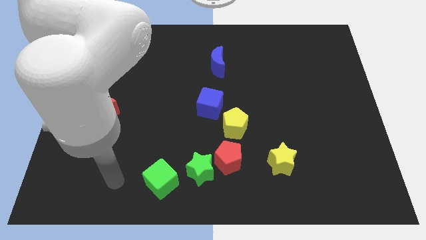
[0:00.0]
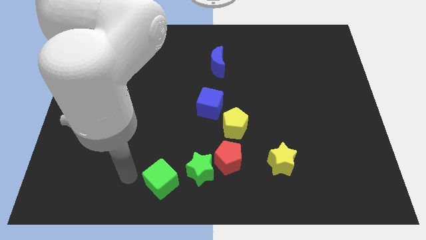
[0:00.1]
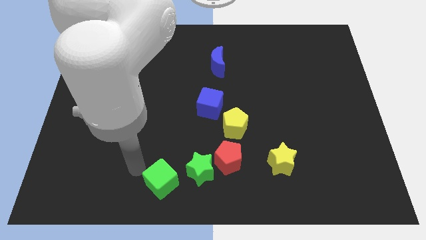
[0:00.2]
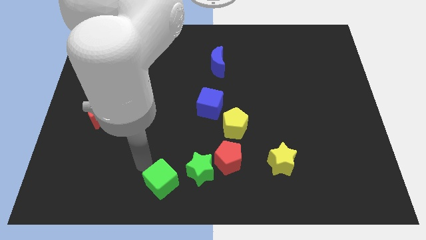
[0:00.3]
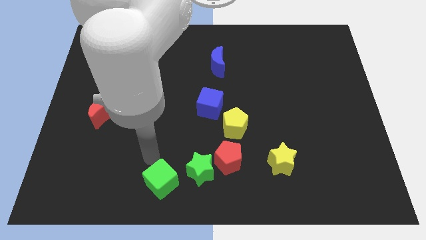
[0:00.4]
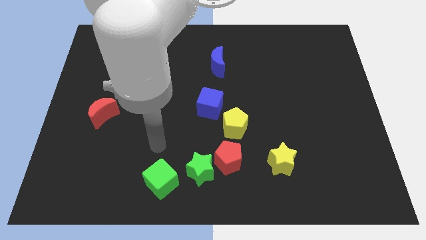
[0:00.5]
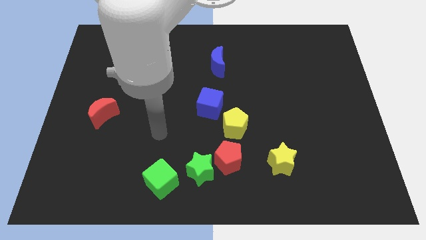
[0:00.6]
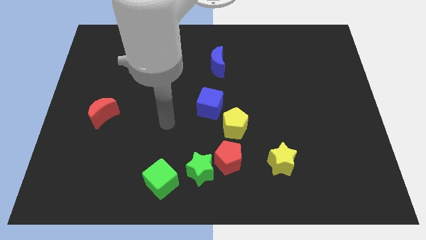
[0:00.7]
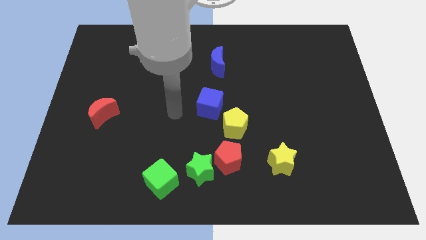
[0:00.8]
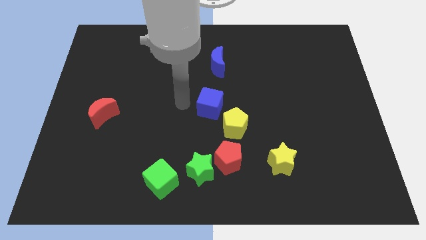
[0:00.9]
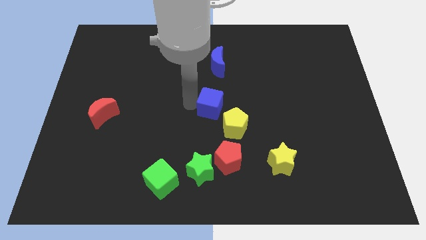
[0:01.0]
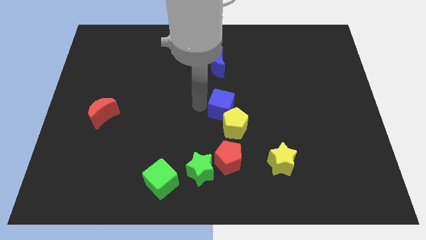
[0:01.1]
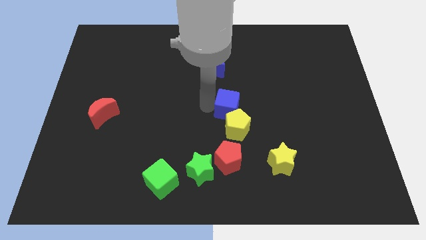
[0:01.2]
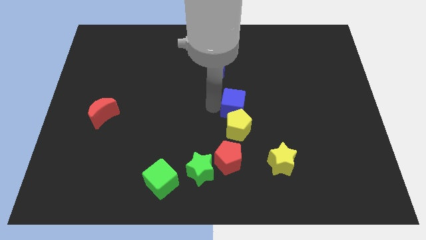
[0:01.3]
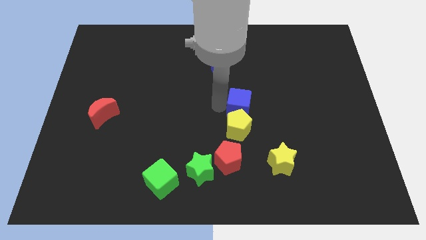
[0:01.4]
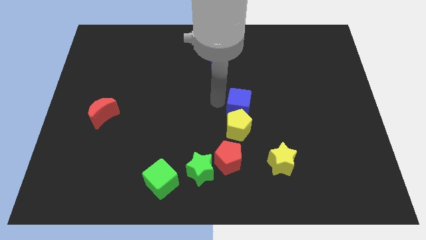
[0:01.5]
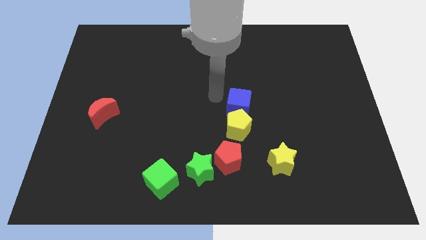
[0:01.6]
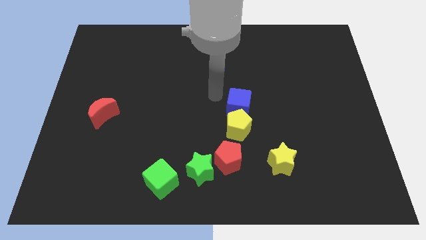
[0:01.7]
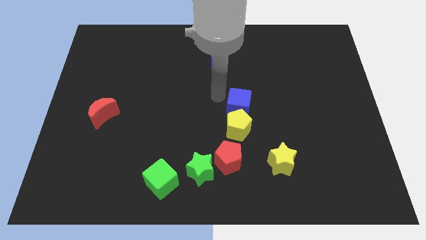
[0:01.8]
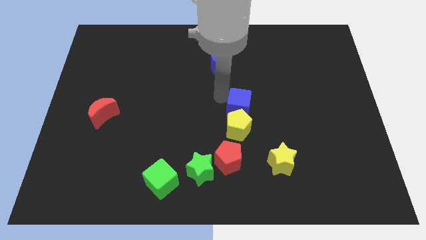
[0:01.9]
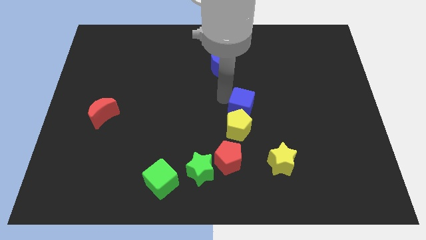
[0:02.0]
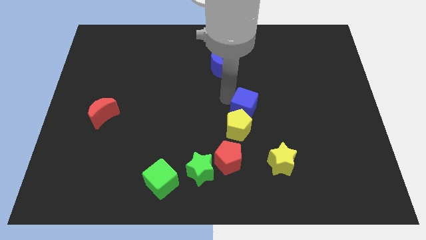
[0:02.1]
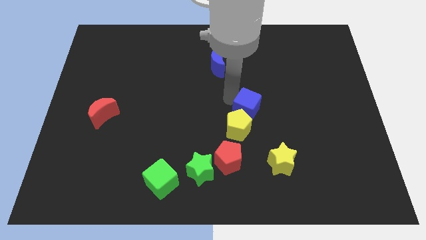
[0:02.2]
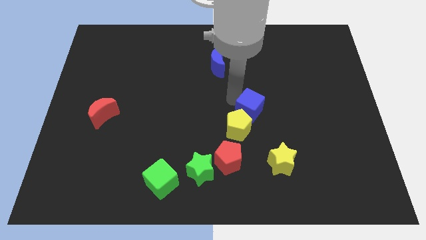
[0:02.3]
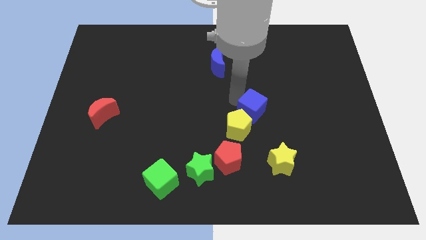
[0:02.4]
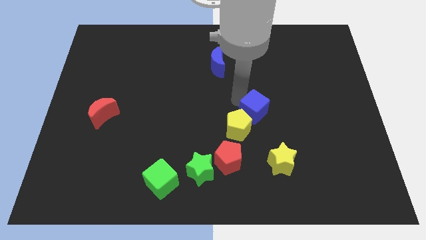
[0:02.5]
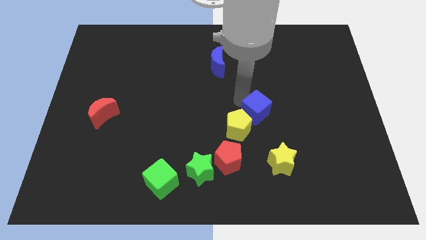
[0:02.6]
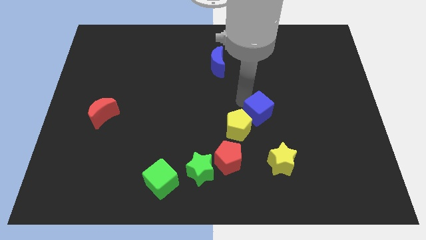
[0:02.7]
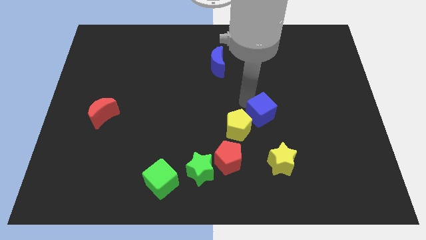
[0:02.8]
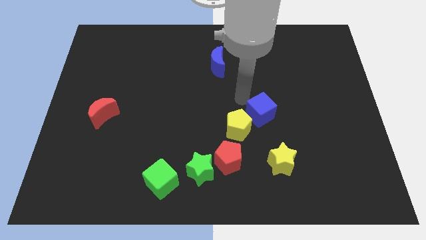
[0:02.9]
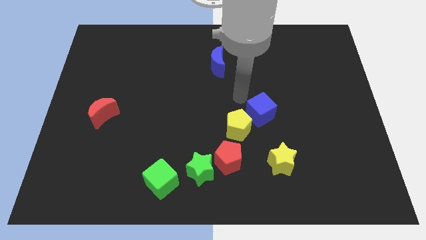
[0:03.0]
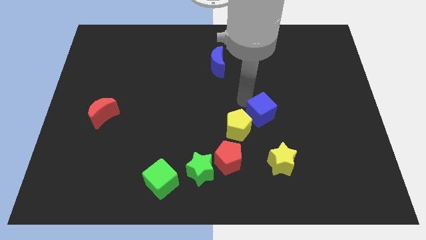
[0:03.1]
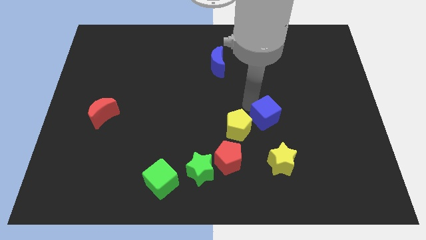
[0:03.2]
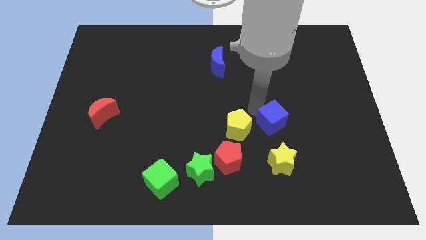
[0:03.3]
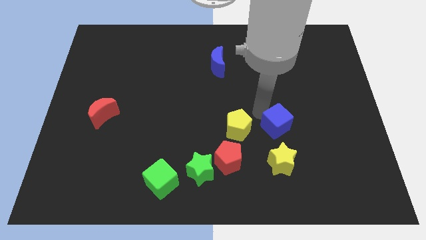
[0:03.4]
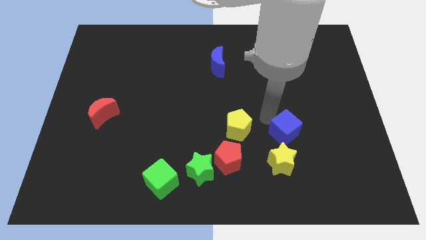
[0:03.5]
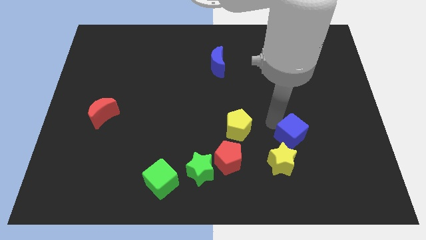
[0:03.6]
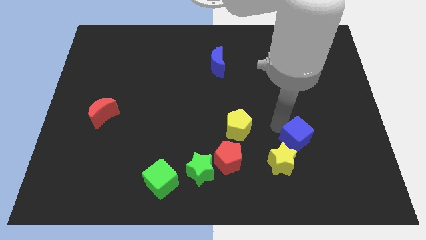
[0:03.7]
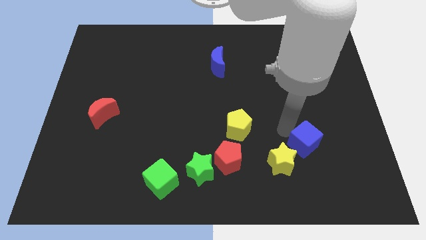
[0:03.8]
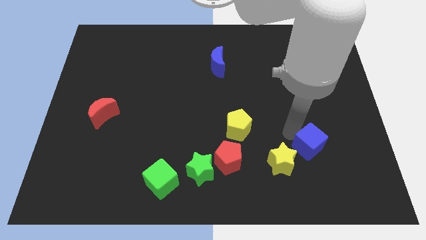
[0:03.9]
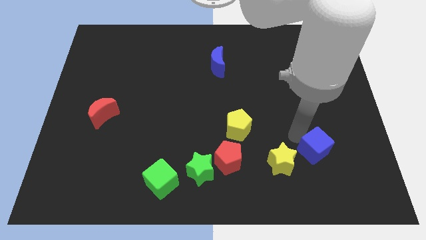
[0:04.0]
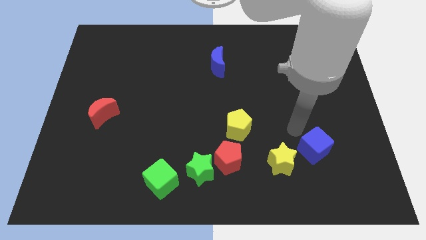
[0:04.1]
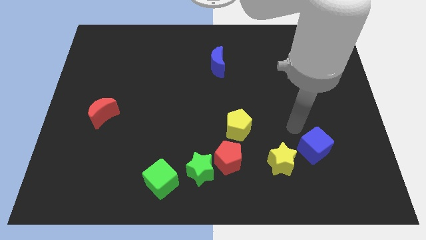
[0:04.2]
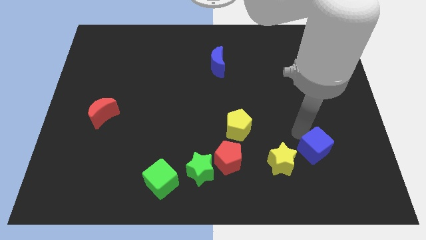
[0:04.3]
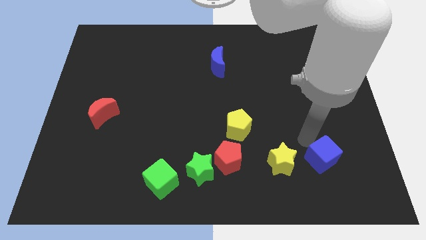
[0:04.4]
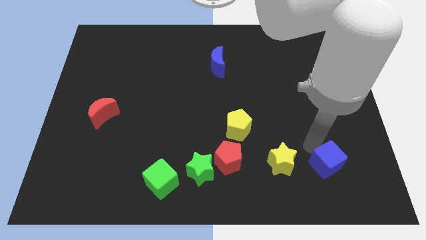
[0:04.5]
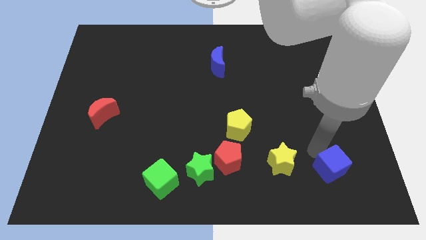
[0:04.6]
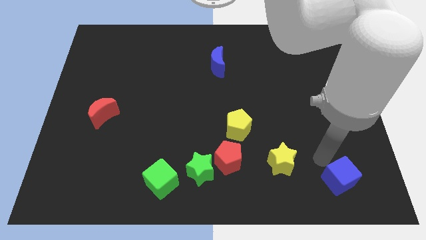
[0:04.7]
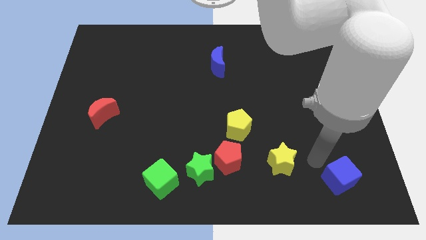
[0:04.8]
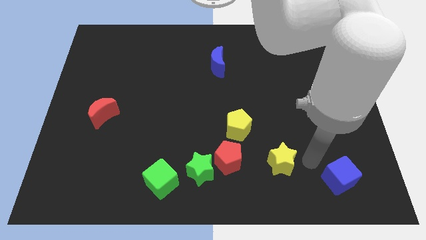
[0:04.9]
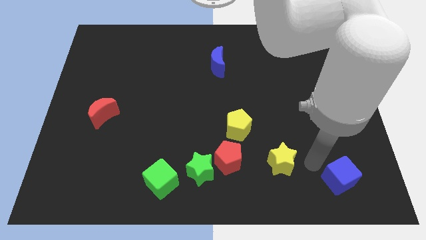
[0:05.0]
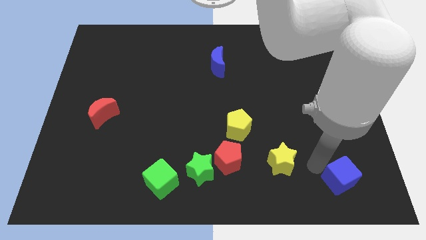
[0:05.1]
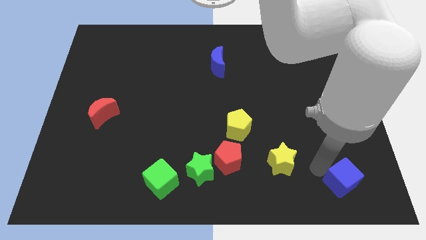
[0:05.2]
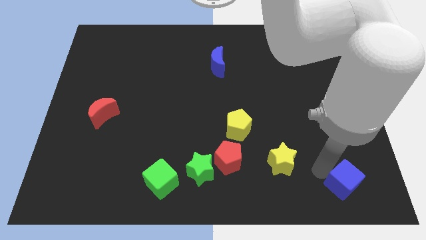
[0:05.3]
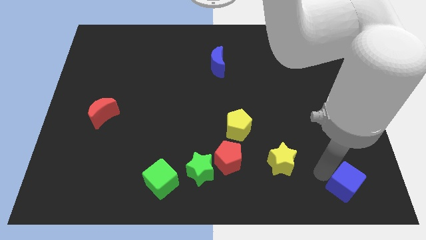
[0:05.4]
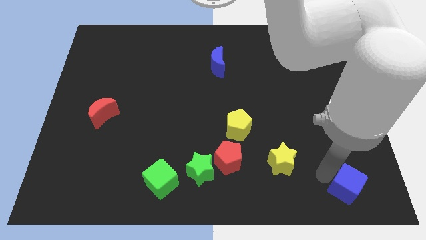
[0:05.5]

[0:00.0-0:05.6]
put the blue cube to the bottom right of the board

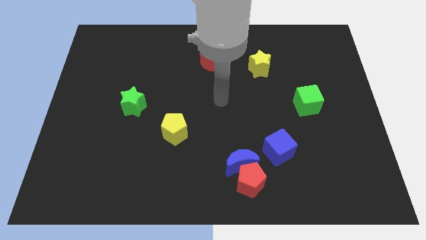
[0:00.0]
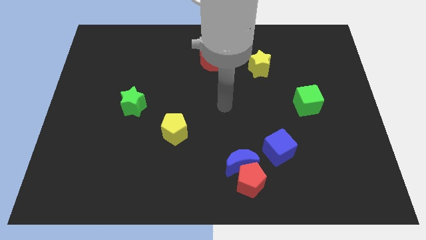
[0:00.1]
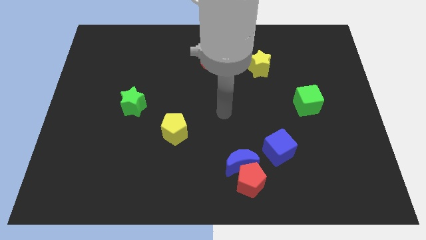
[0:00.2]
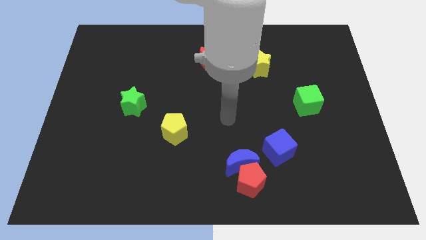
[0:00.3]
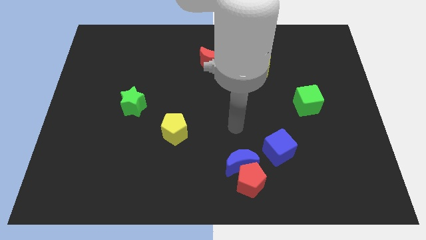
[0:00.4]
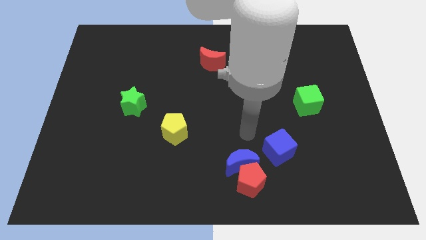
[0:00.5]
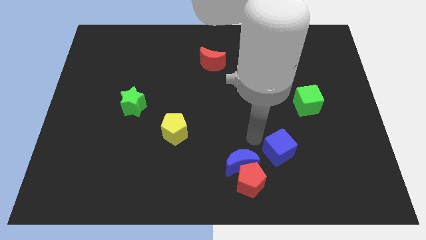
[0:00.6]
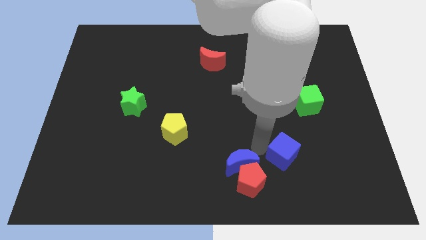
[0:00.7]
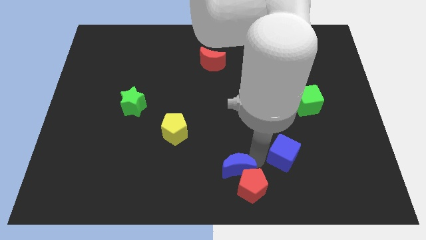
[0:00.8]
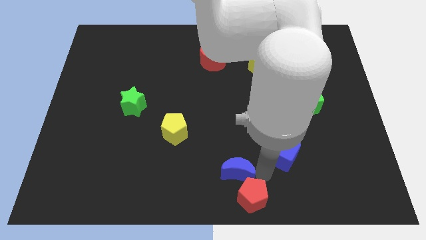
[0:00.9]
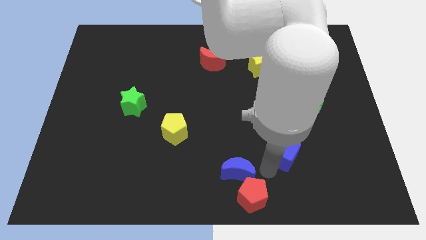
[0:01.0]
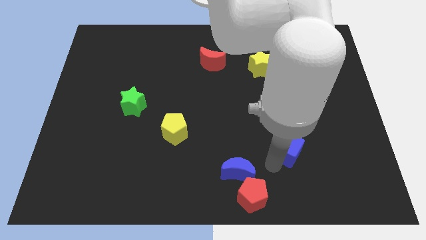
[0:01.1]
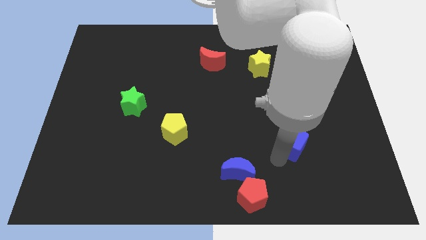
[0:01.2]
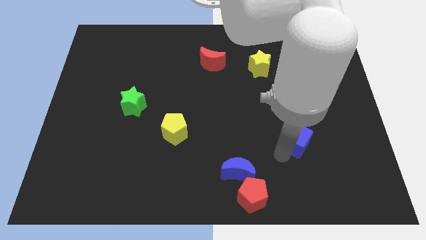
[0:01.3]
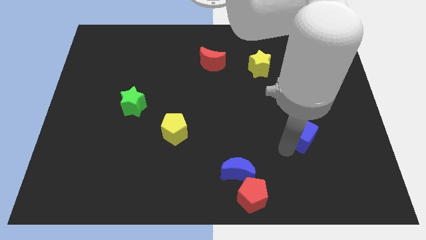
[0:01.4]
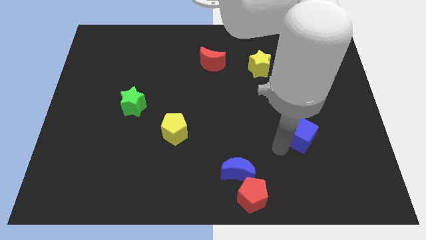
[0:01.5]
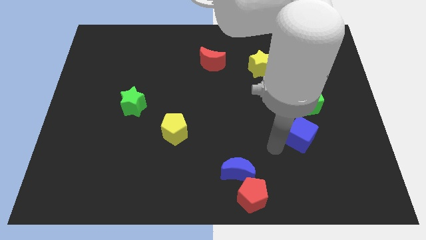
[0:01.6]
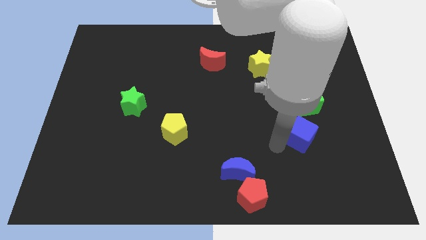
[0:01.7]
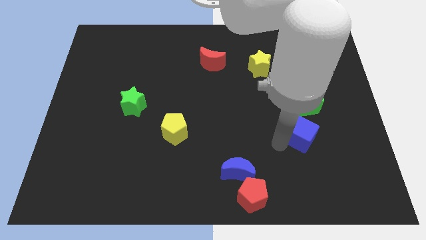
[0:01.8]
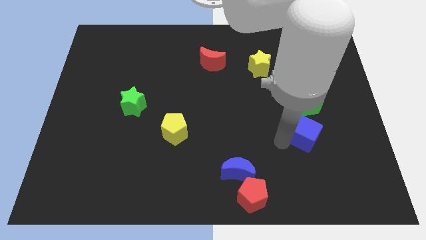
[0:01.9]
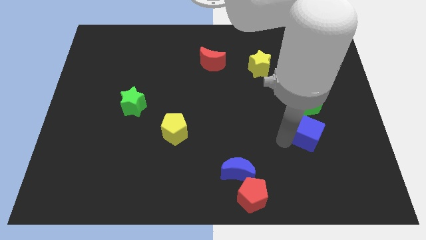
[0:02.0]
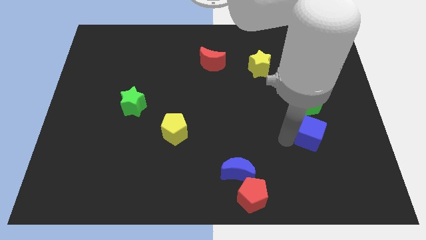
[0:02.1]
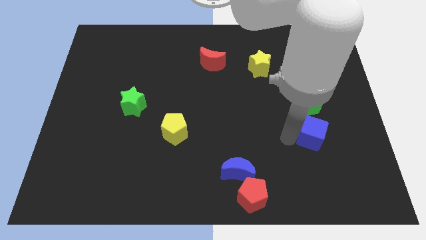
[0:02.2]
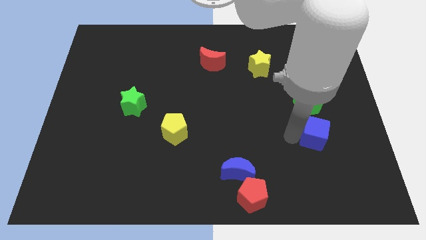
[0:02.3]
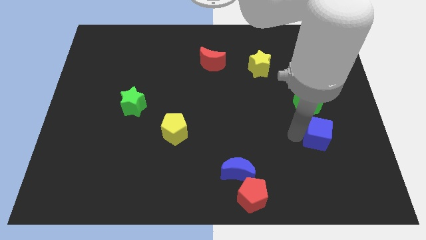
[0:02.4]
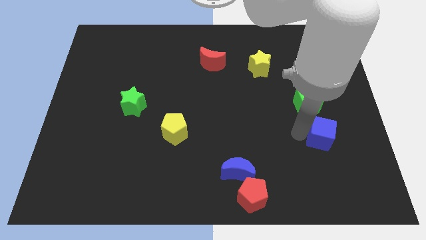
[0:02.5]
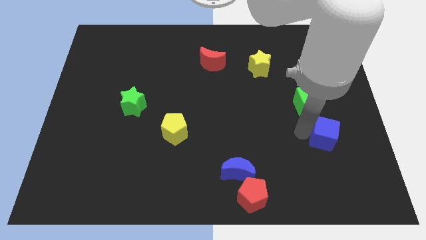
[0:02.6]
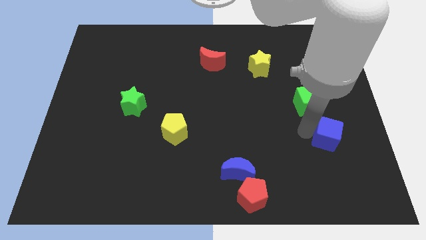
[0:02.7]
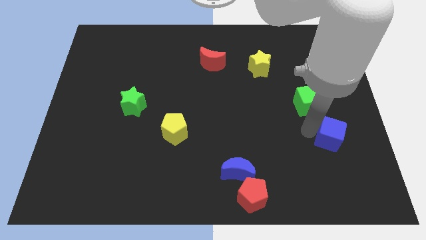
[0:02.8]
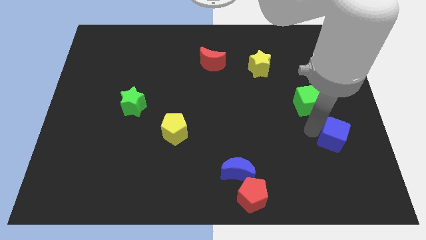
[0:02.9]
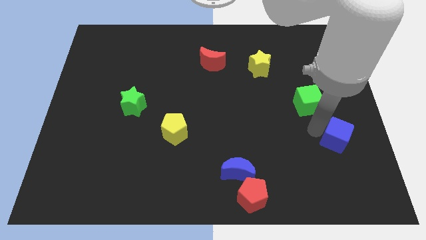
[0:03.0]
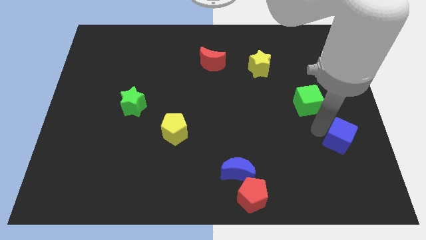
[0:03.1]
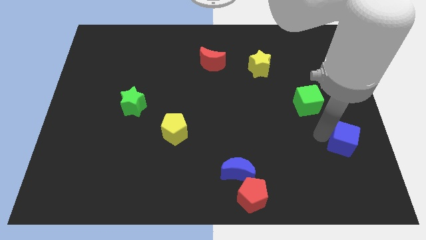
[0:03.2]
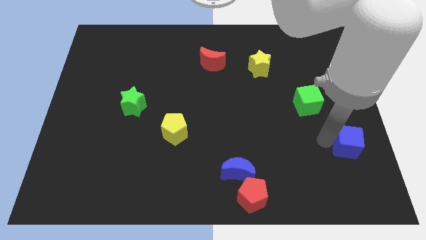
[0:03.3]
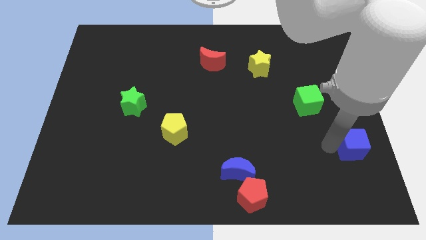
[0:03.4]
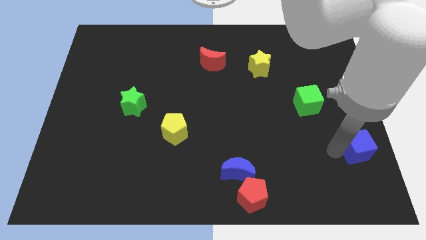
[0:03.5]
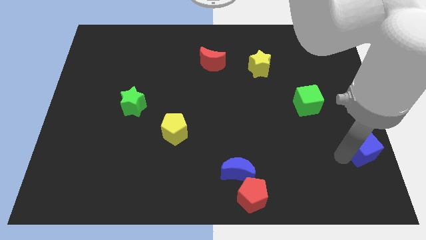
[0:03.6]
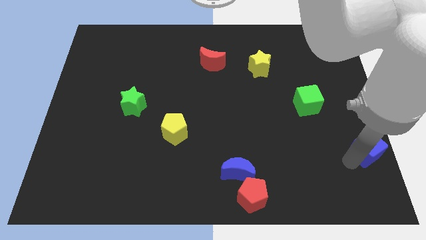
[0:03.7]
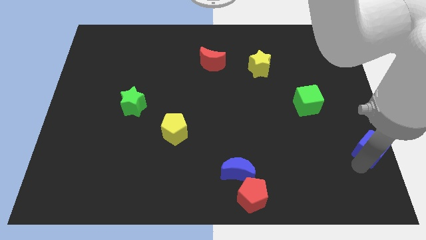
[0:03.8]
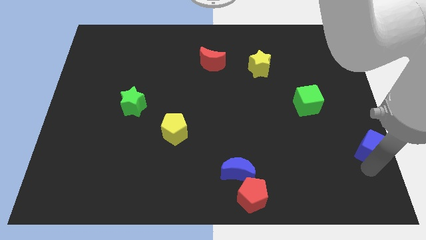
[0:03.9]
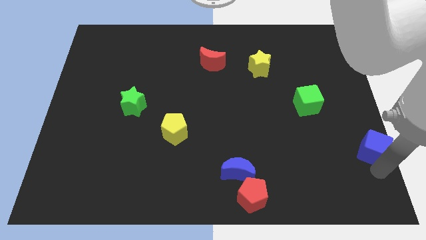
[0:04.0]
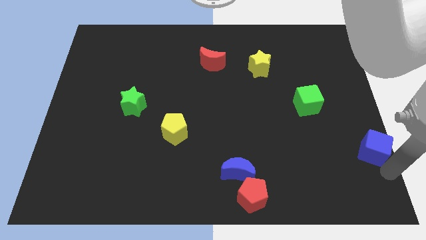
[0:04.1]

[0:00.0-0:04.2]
slide the blue cube to the right side of the board
